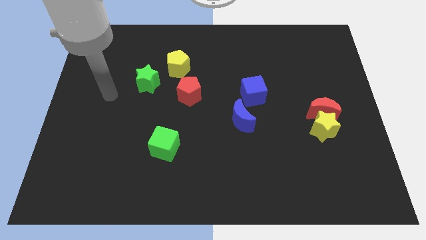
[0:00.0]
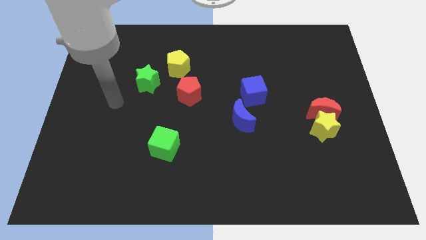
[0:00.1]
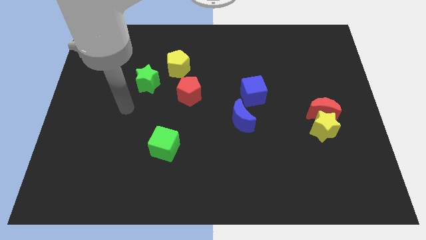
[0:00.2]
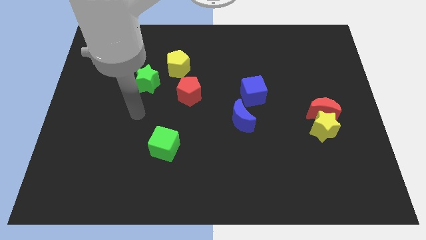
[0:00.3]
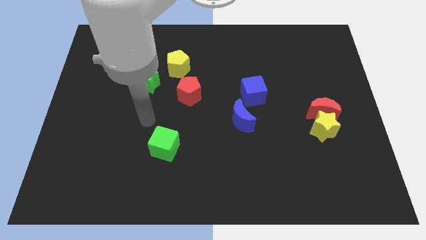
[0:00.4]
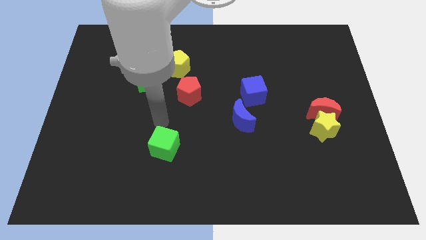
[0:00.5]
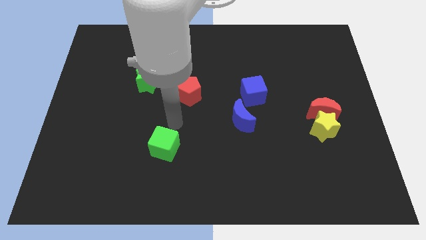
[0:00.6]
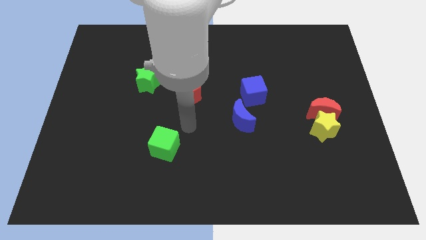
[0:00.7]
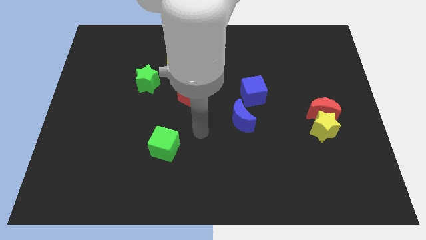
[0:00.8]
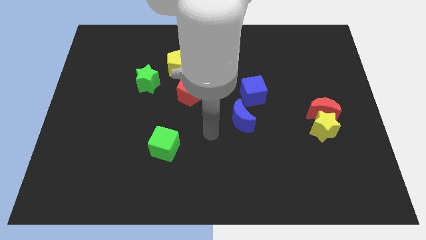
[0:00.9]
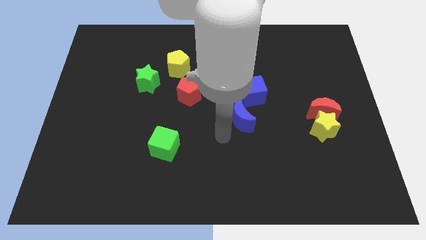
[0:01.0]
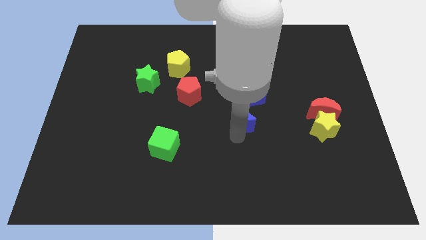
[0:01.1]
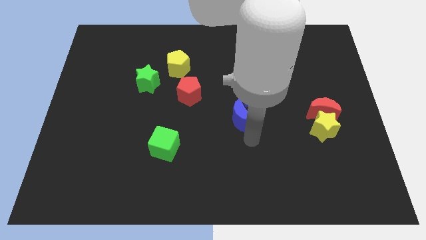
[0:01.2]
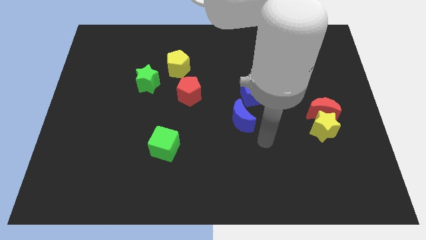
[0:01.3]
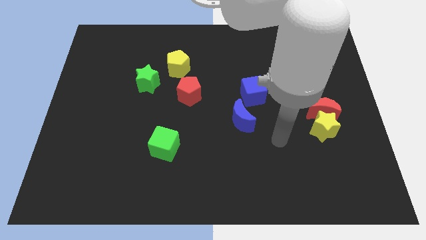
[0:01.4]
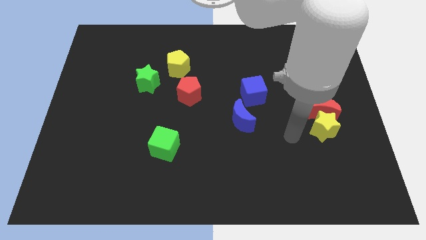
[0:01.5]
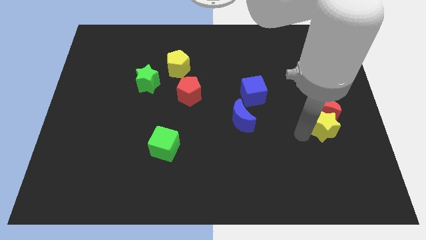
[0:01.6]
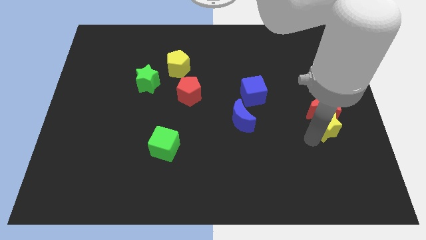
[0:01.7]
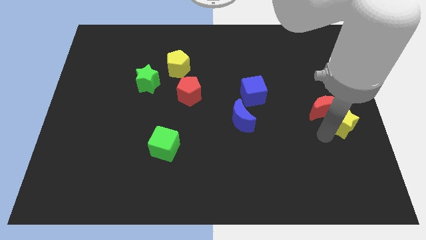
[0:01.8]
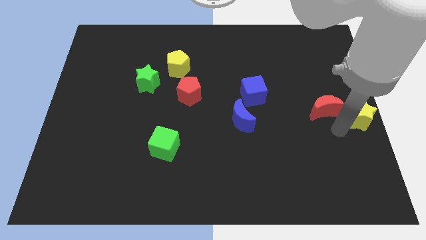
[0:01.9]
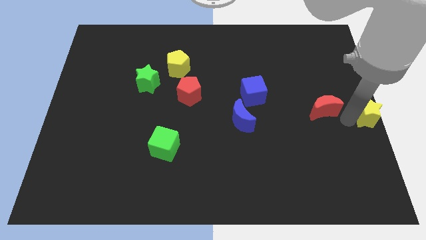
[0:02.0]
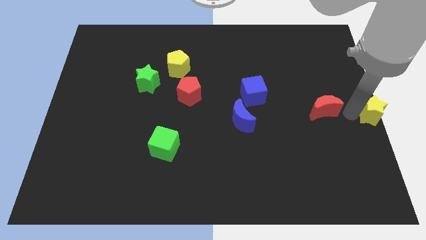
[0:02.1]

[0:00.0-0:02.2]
pull the red moon apart from the yellow star

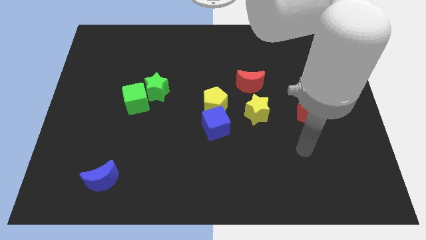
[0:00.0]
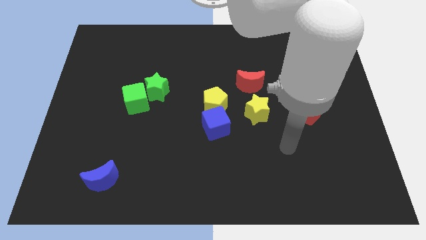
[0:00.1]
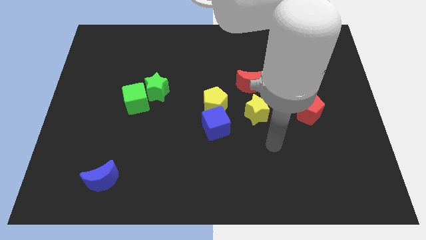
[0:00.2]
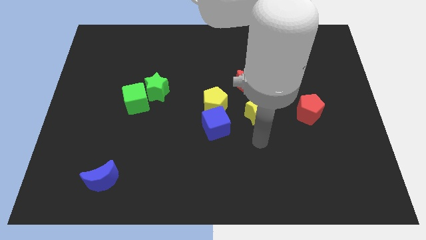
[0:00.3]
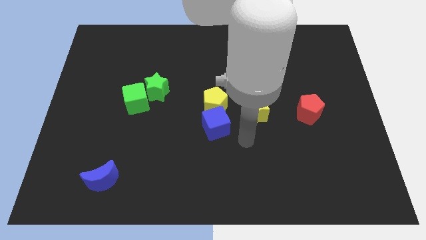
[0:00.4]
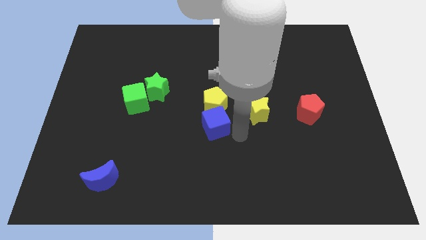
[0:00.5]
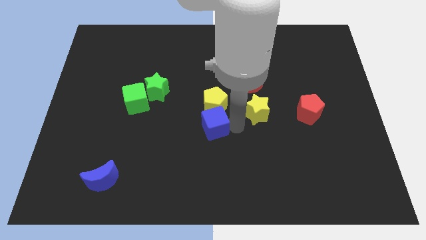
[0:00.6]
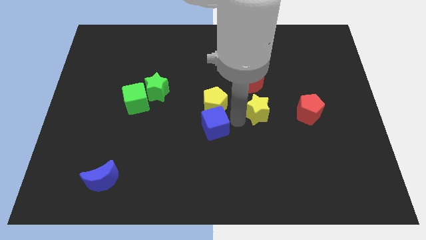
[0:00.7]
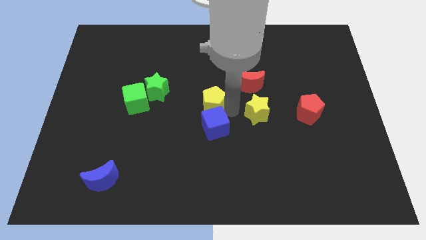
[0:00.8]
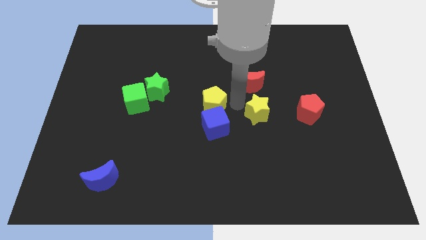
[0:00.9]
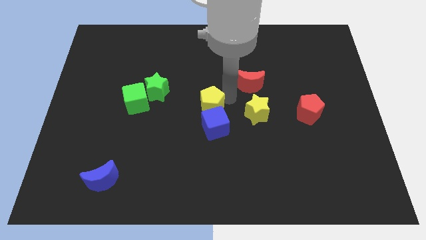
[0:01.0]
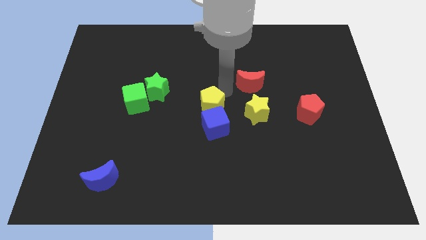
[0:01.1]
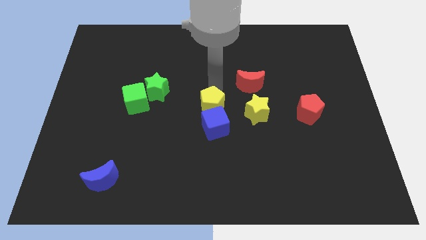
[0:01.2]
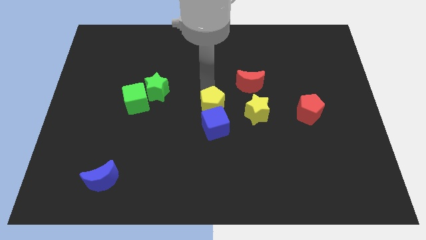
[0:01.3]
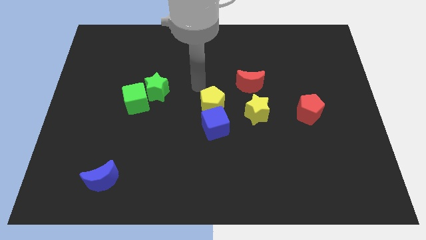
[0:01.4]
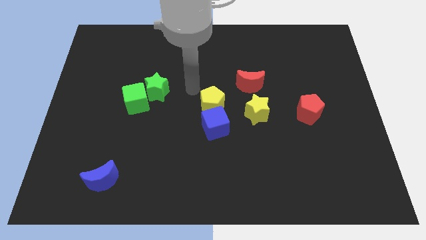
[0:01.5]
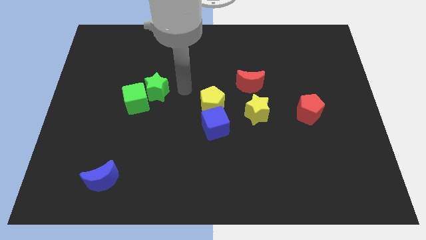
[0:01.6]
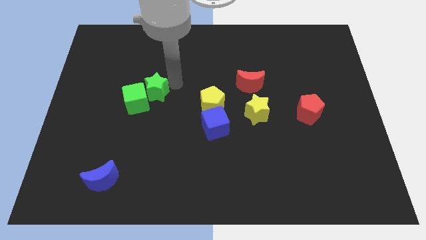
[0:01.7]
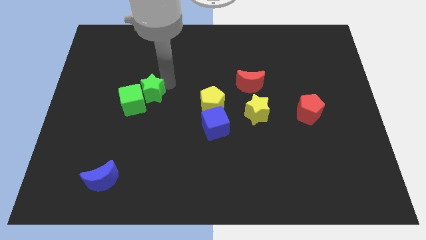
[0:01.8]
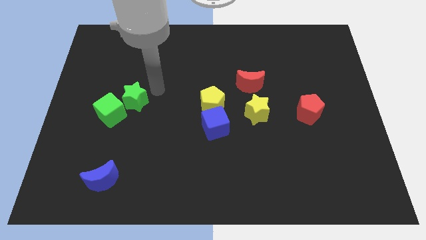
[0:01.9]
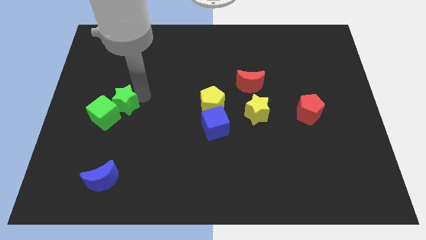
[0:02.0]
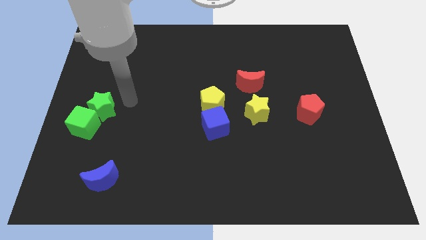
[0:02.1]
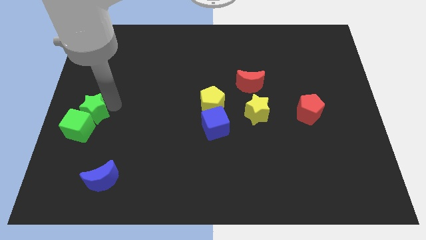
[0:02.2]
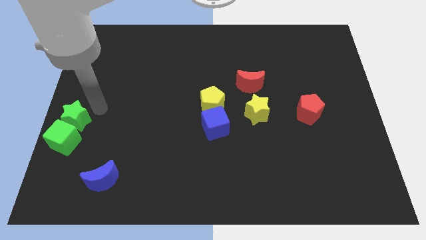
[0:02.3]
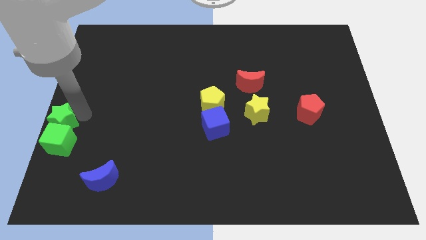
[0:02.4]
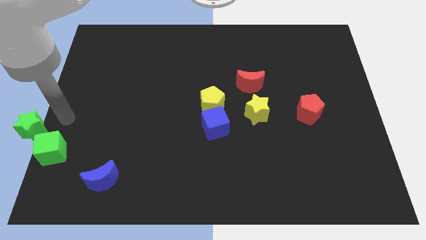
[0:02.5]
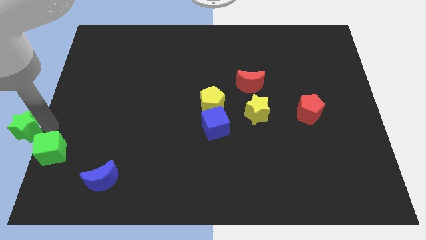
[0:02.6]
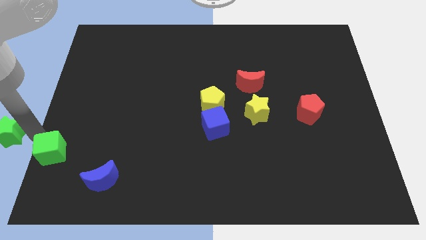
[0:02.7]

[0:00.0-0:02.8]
separate the green cube from the green star

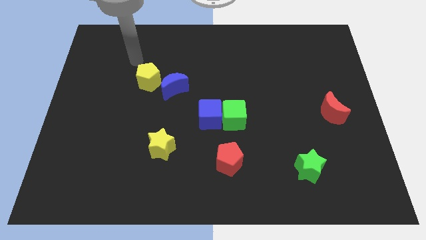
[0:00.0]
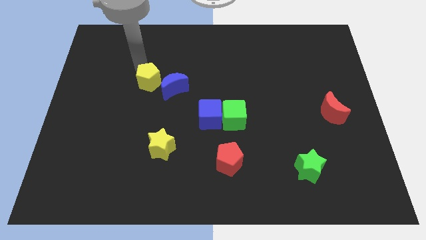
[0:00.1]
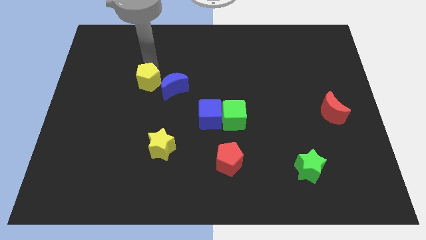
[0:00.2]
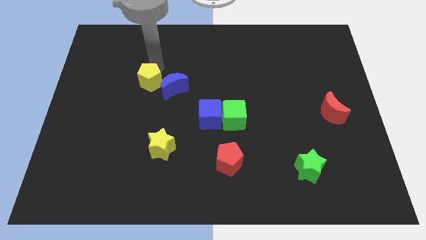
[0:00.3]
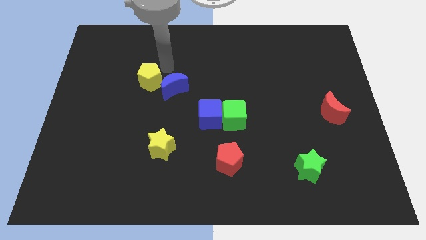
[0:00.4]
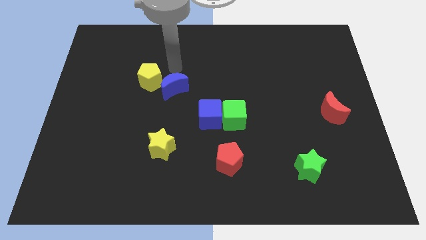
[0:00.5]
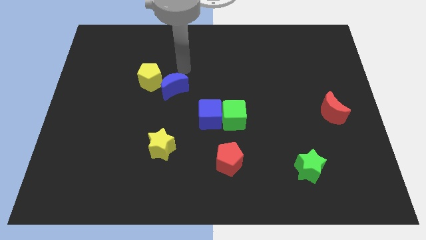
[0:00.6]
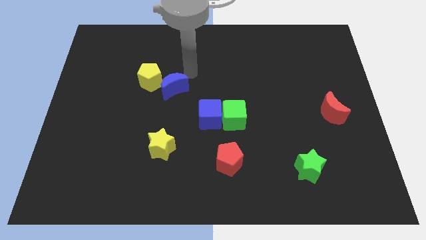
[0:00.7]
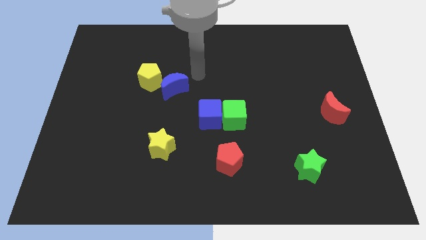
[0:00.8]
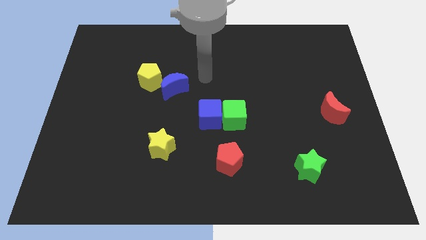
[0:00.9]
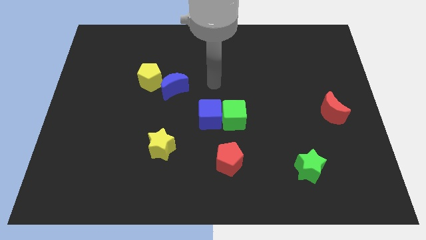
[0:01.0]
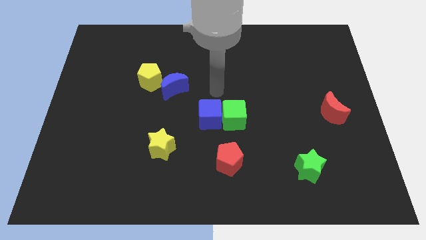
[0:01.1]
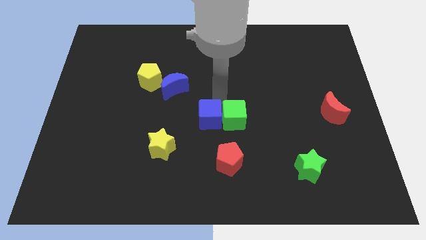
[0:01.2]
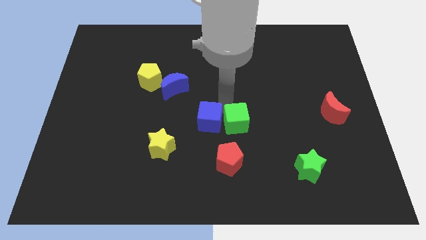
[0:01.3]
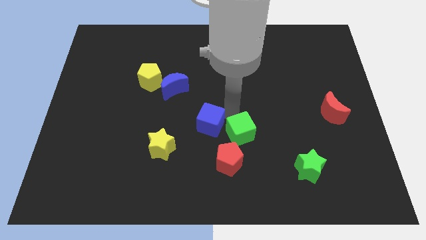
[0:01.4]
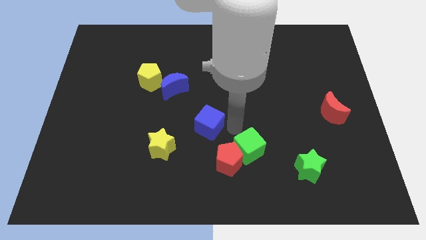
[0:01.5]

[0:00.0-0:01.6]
move the blue cube away from the green cube

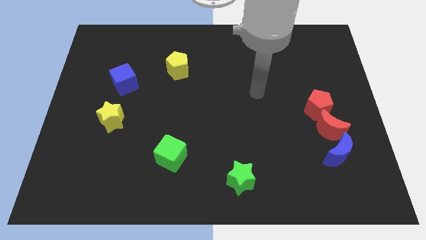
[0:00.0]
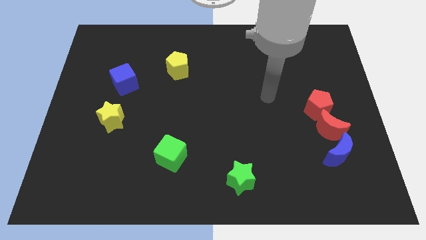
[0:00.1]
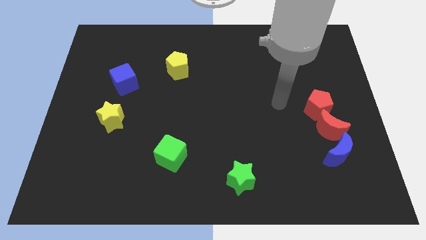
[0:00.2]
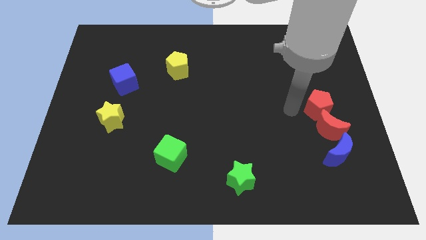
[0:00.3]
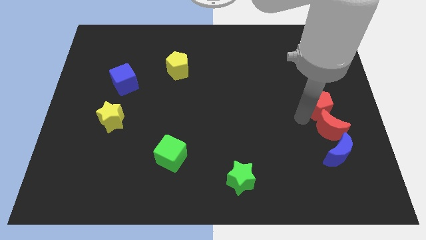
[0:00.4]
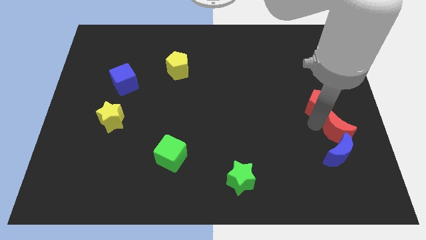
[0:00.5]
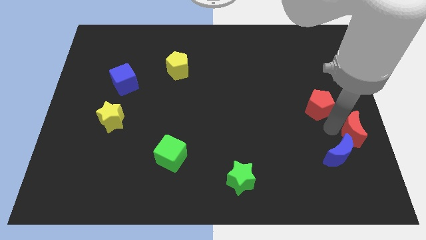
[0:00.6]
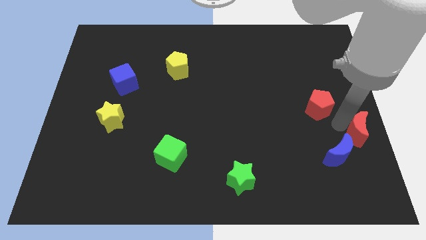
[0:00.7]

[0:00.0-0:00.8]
move the red pentagon away from the red moon

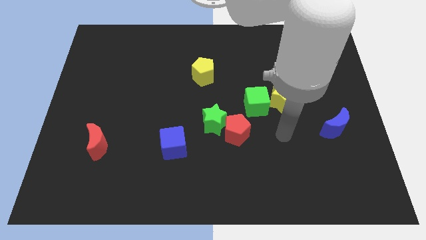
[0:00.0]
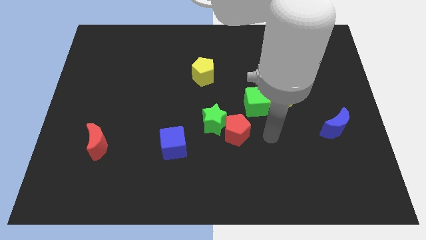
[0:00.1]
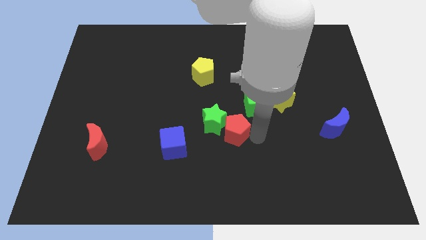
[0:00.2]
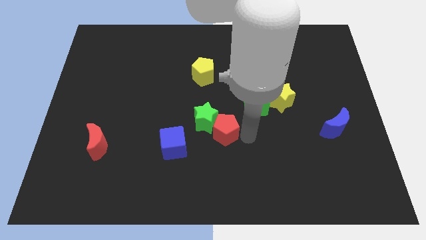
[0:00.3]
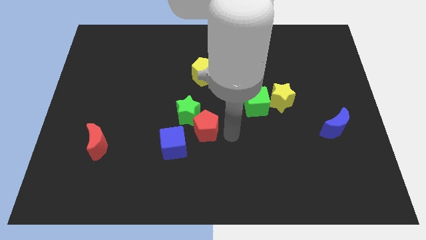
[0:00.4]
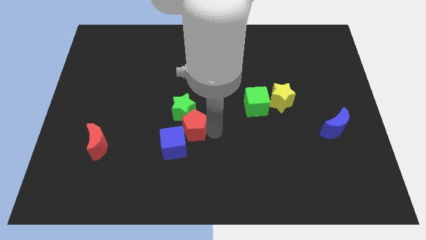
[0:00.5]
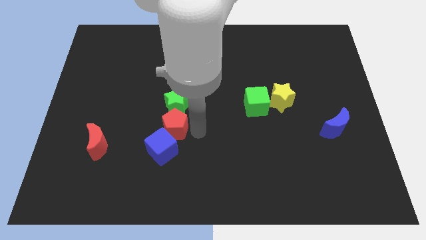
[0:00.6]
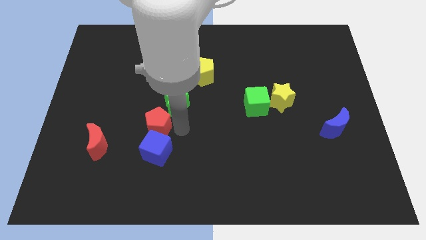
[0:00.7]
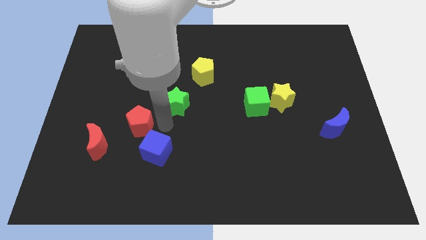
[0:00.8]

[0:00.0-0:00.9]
separate the green star from the red pentagon

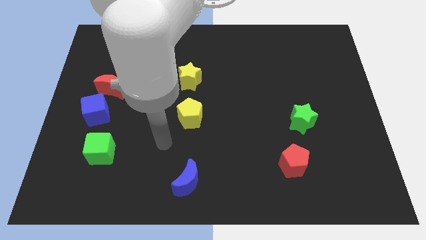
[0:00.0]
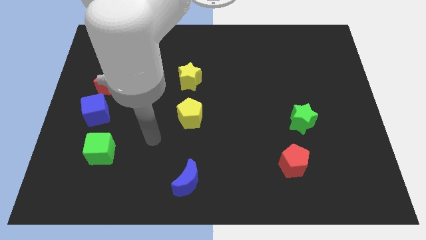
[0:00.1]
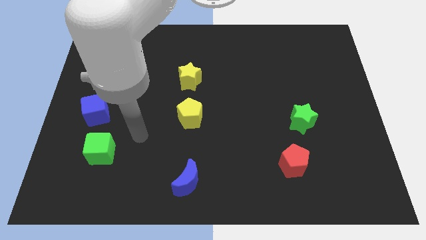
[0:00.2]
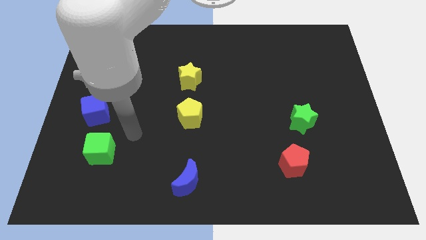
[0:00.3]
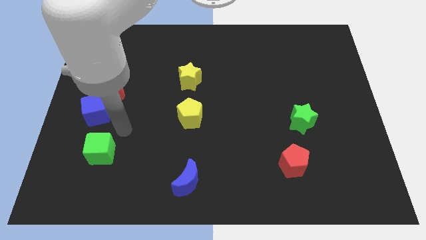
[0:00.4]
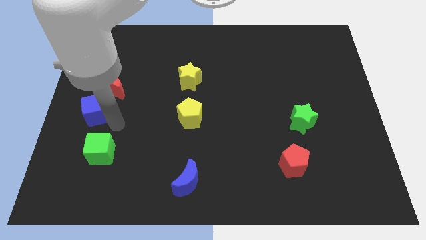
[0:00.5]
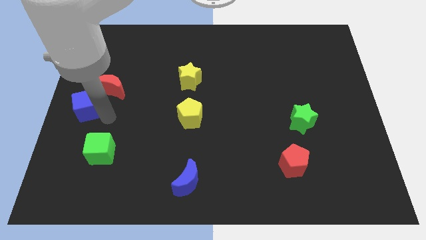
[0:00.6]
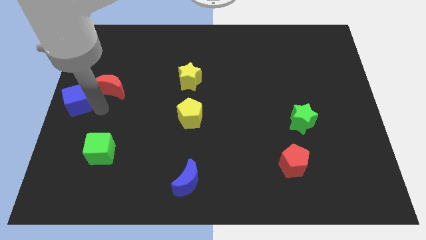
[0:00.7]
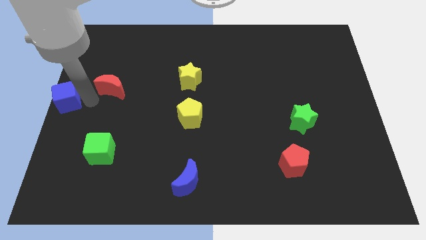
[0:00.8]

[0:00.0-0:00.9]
move the red moon away from the blue cube
